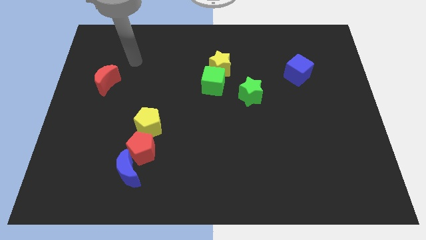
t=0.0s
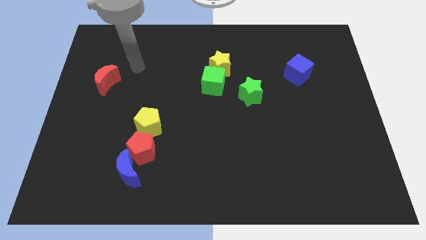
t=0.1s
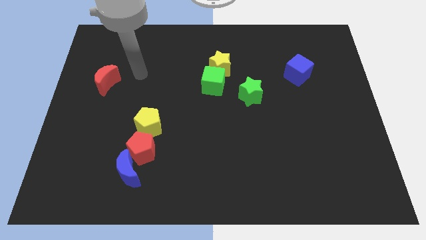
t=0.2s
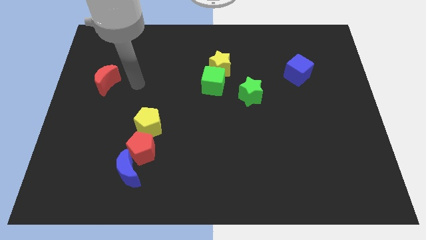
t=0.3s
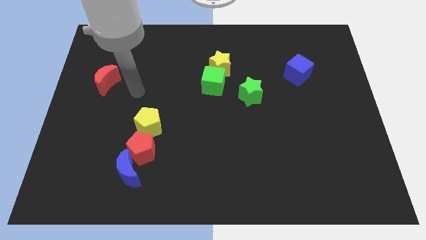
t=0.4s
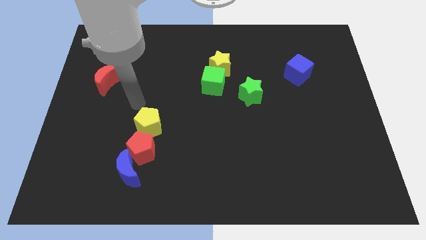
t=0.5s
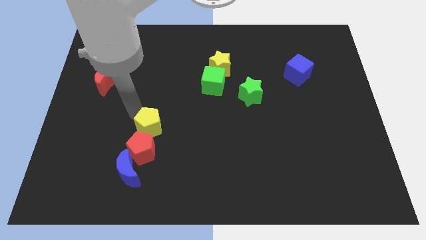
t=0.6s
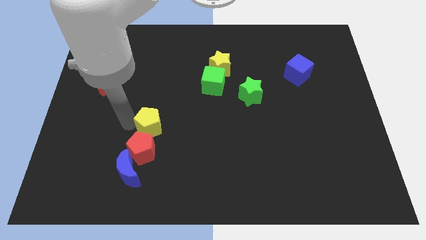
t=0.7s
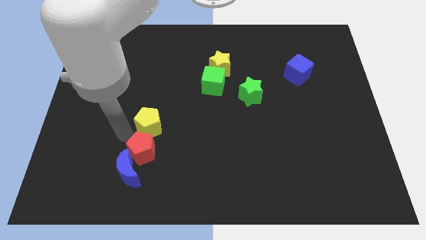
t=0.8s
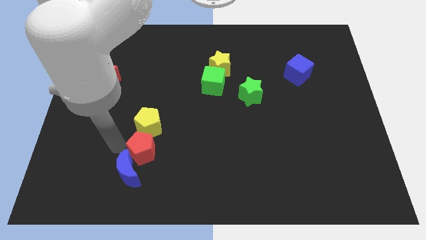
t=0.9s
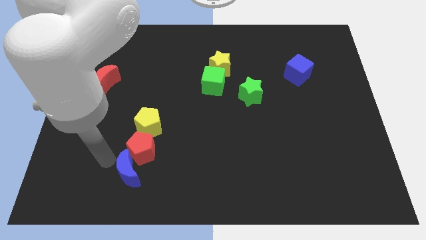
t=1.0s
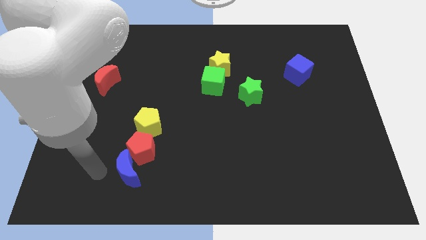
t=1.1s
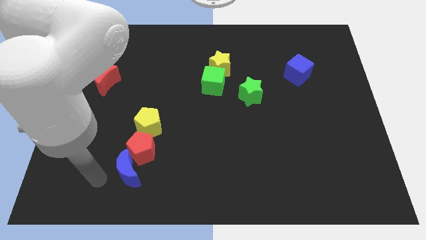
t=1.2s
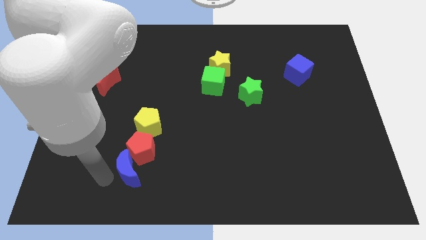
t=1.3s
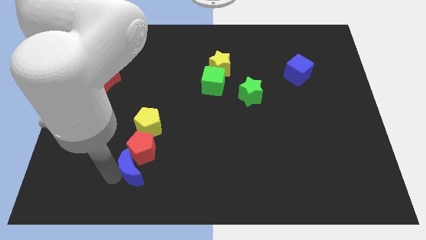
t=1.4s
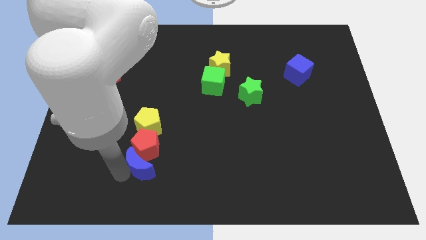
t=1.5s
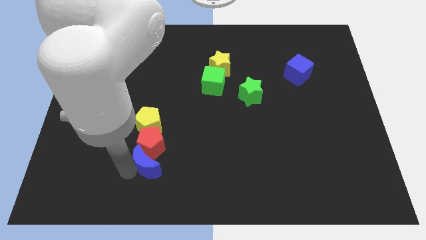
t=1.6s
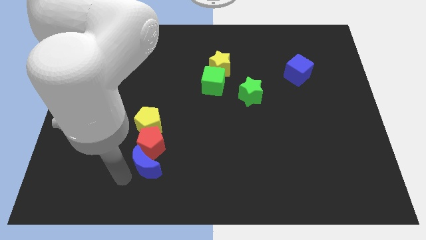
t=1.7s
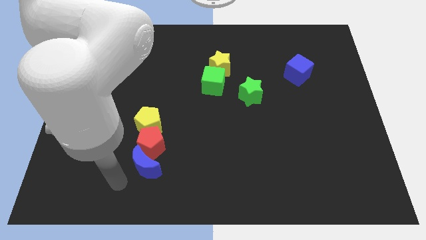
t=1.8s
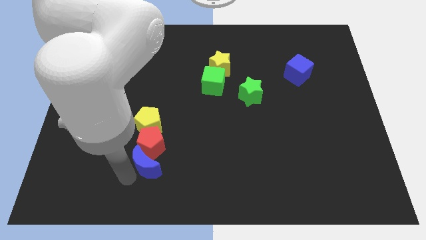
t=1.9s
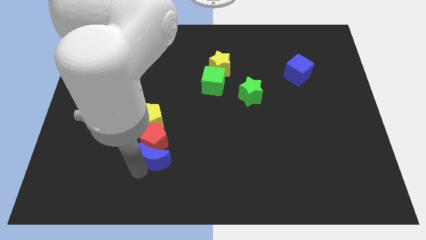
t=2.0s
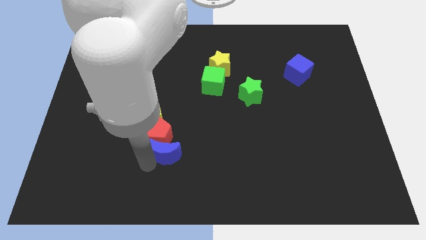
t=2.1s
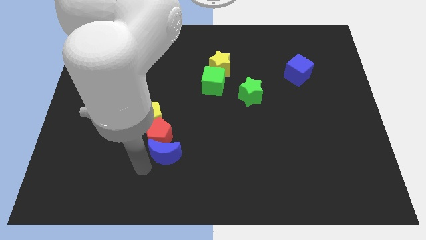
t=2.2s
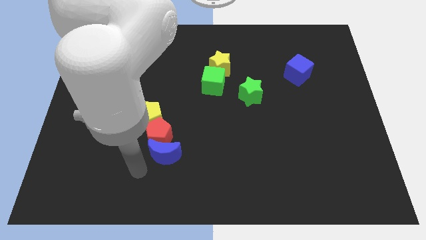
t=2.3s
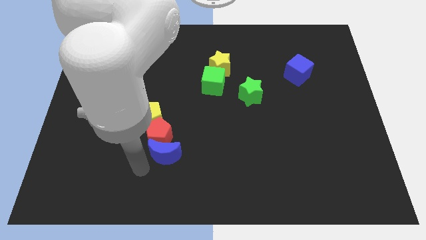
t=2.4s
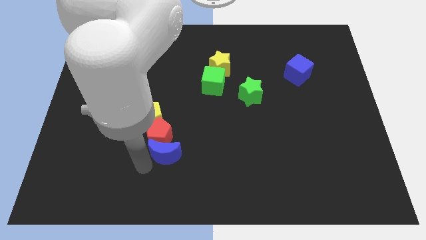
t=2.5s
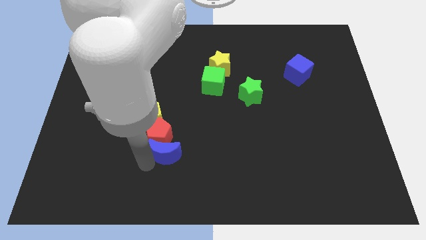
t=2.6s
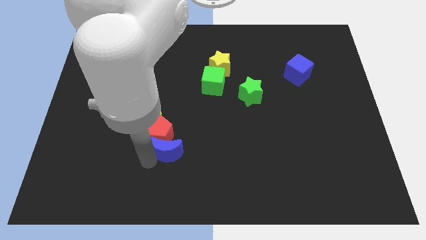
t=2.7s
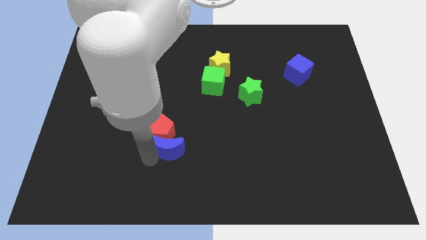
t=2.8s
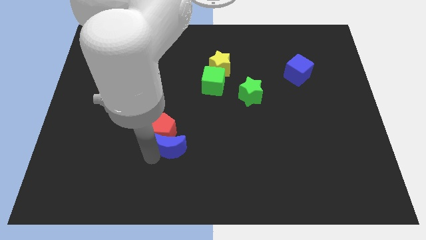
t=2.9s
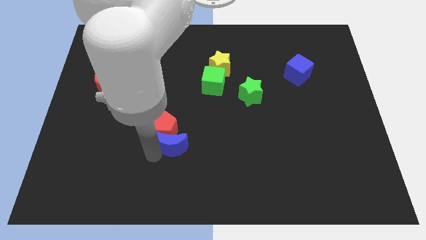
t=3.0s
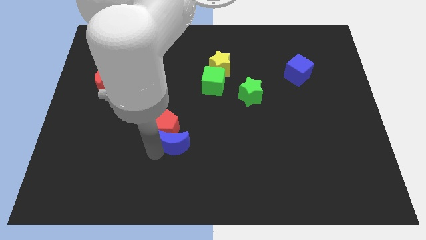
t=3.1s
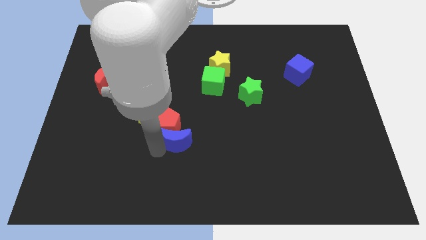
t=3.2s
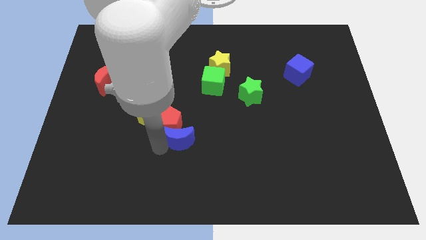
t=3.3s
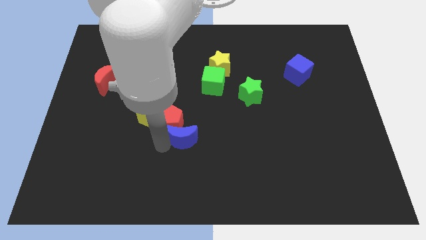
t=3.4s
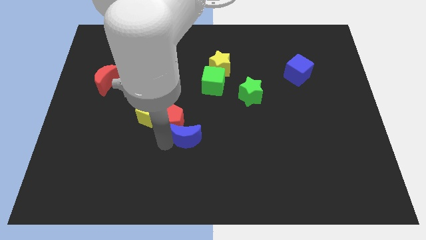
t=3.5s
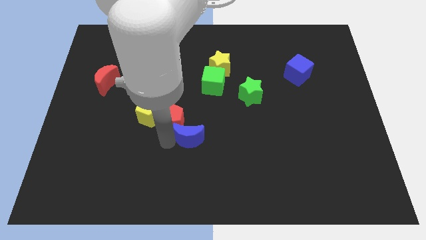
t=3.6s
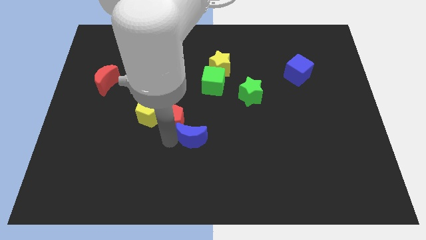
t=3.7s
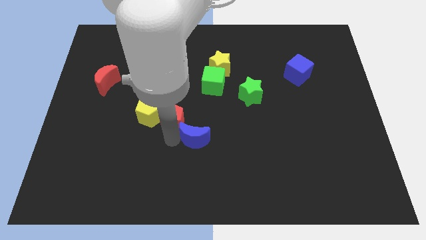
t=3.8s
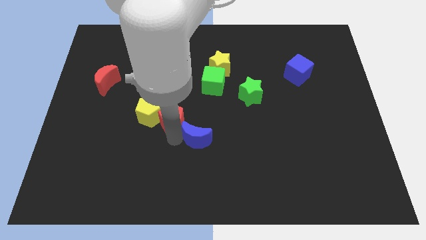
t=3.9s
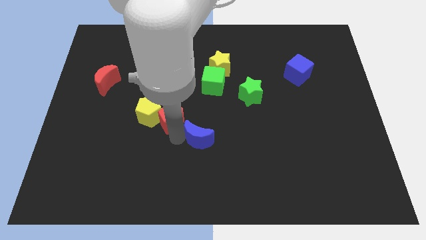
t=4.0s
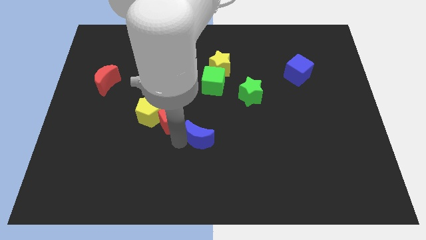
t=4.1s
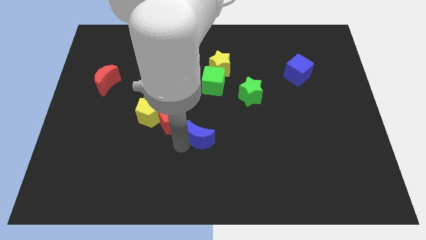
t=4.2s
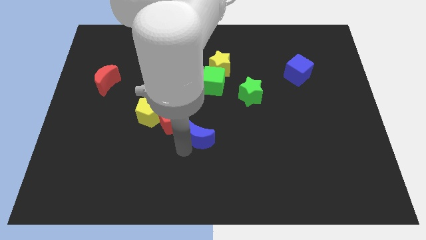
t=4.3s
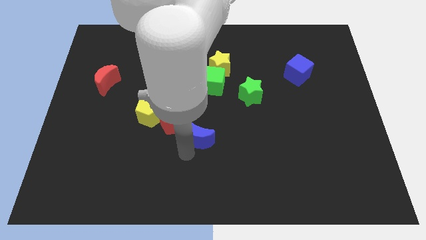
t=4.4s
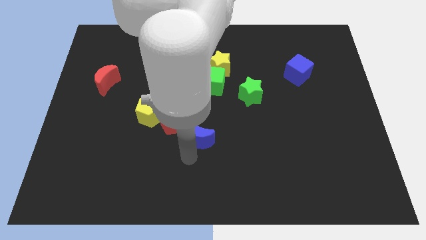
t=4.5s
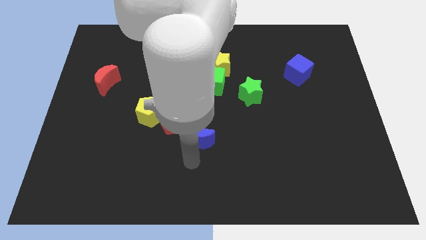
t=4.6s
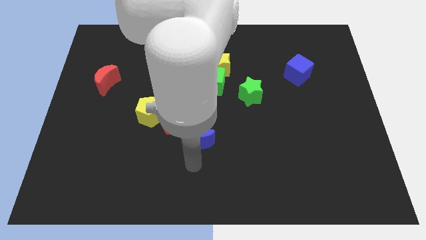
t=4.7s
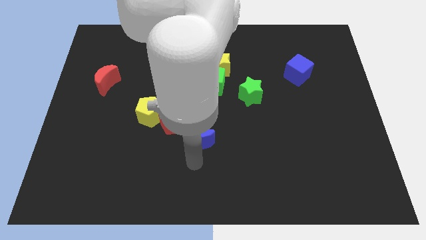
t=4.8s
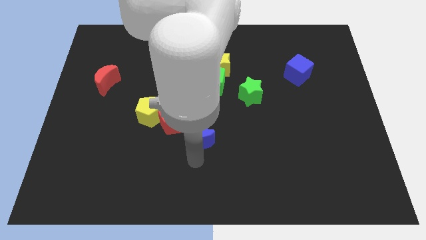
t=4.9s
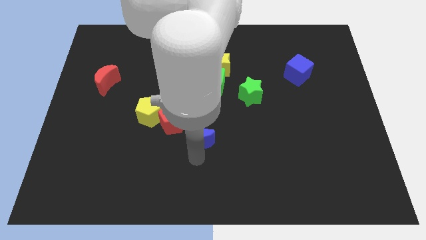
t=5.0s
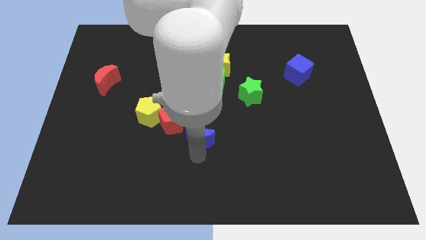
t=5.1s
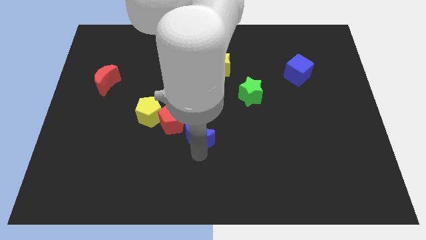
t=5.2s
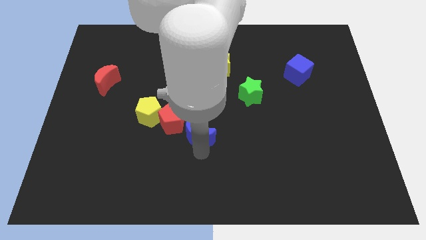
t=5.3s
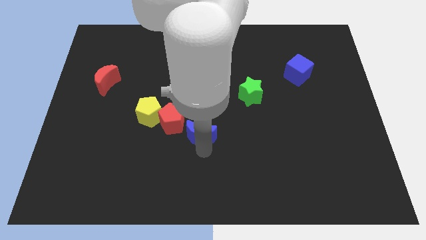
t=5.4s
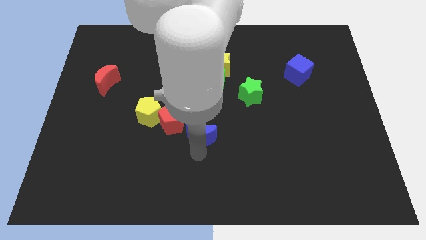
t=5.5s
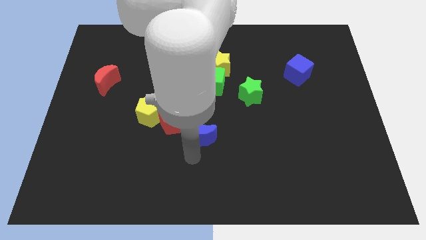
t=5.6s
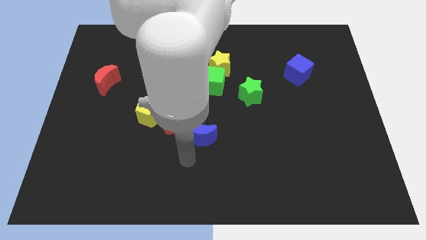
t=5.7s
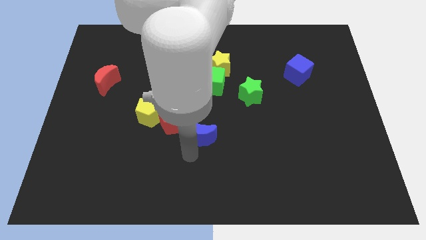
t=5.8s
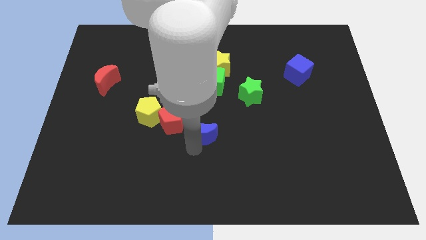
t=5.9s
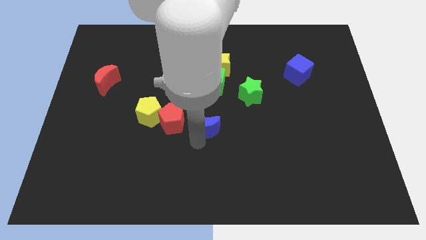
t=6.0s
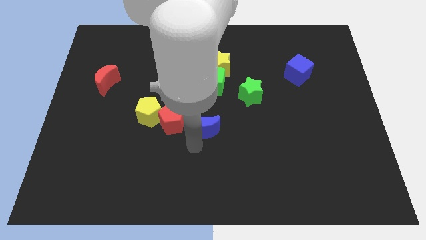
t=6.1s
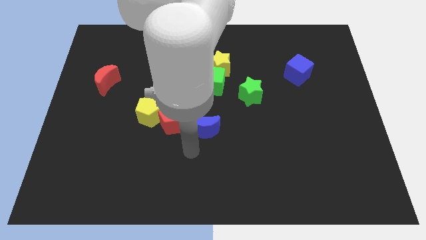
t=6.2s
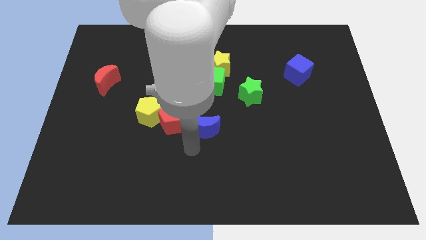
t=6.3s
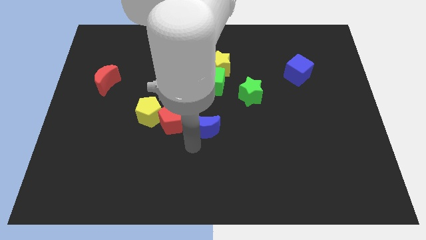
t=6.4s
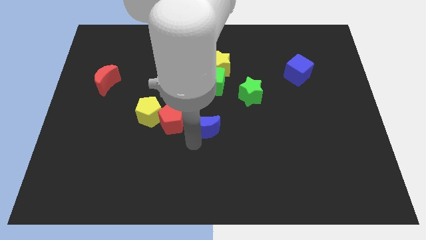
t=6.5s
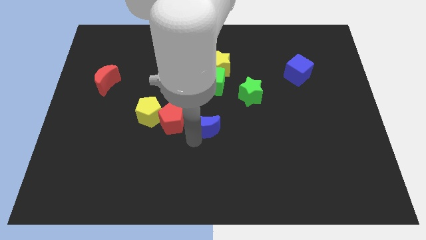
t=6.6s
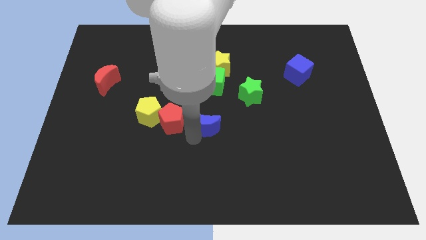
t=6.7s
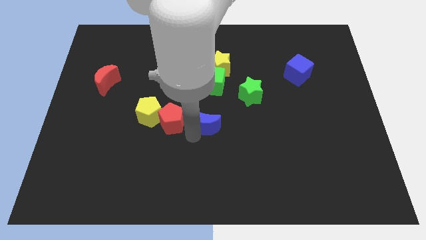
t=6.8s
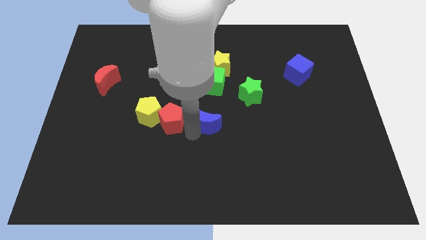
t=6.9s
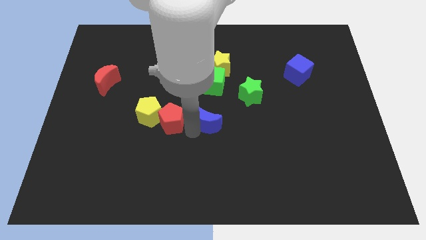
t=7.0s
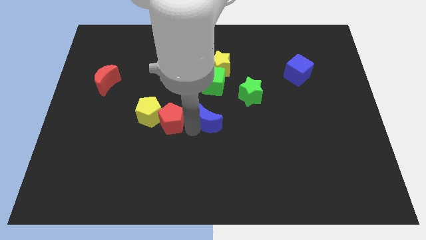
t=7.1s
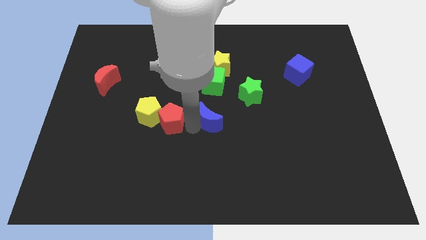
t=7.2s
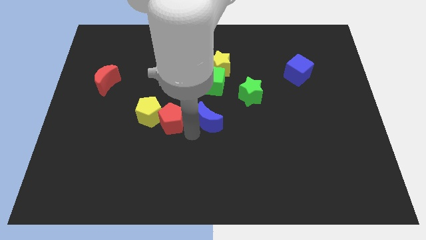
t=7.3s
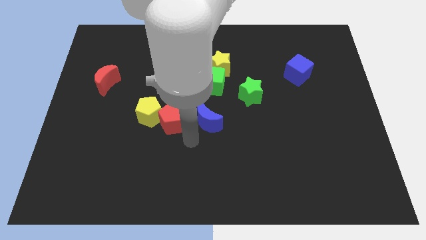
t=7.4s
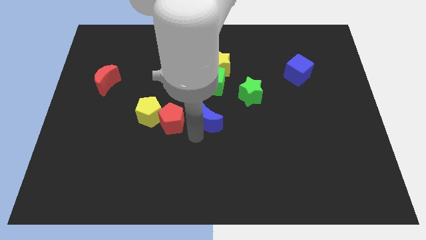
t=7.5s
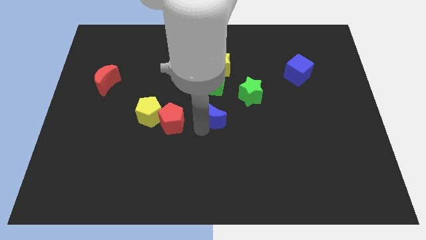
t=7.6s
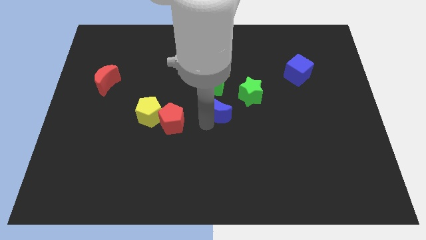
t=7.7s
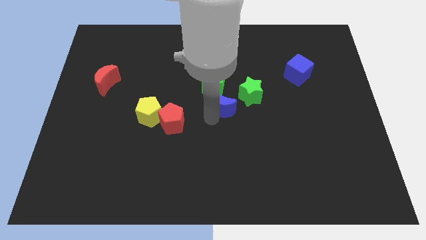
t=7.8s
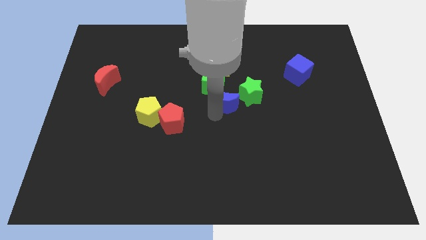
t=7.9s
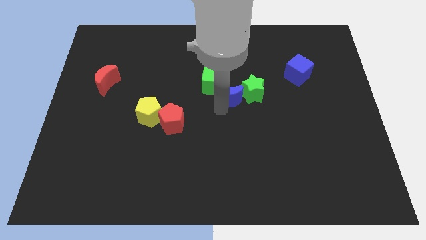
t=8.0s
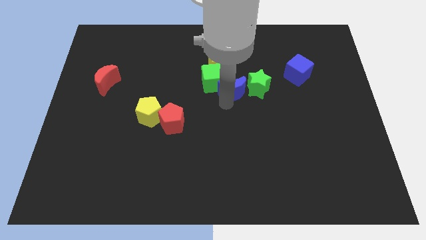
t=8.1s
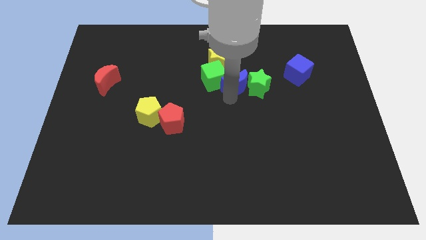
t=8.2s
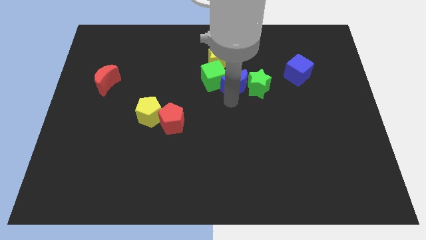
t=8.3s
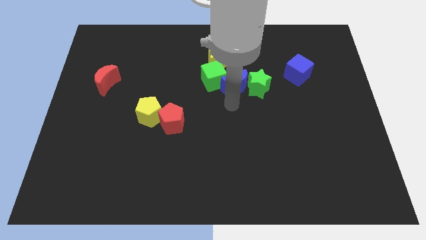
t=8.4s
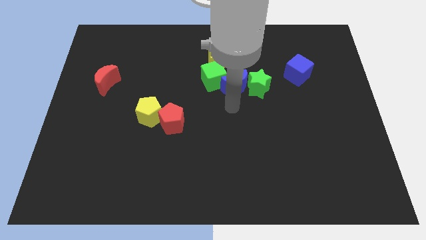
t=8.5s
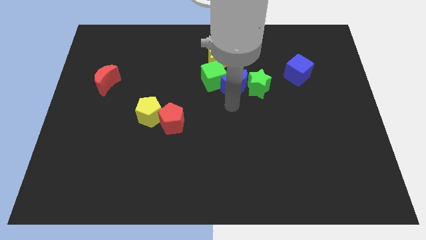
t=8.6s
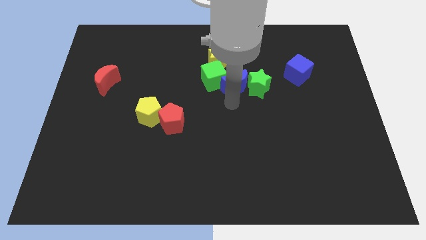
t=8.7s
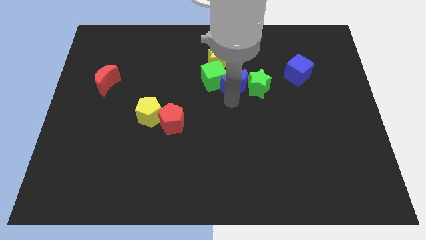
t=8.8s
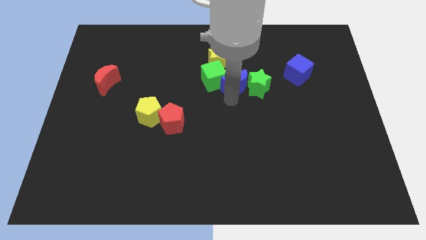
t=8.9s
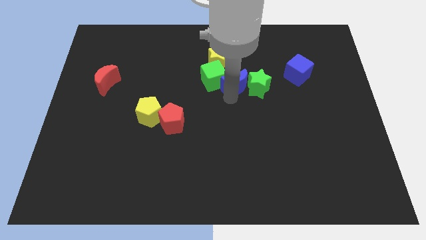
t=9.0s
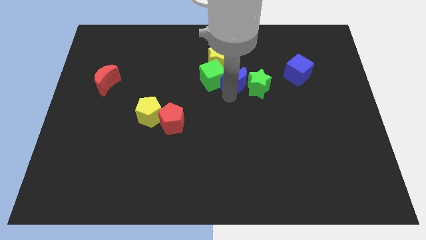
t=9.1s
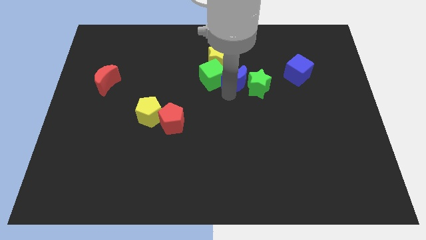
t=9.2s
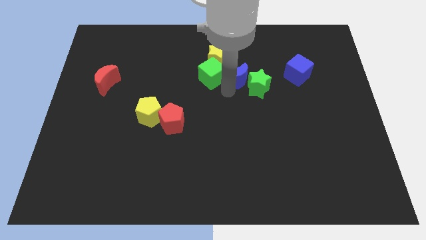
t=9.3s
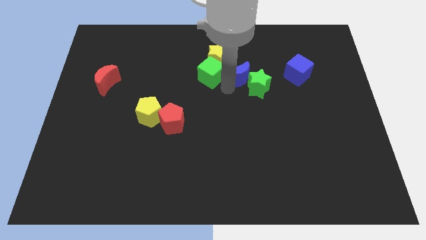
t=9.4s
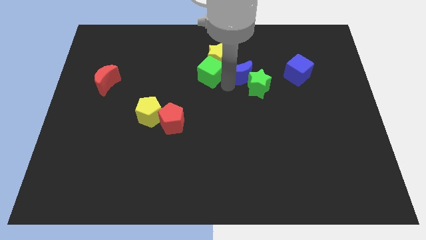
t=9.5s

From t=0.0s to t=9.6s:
move the blue moon above the green star
